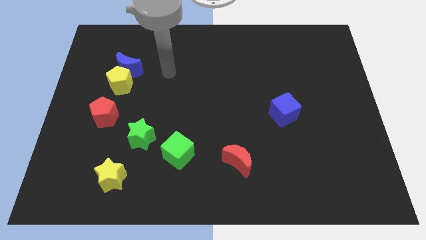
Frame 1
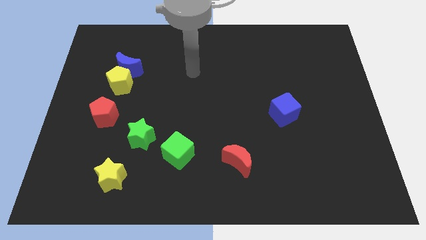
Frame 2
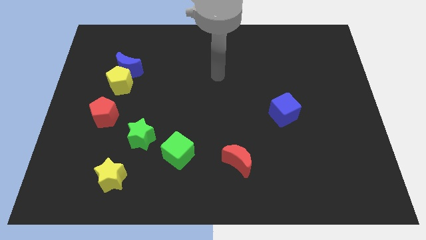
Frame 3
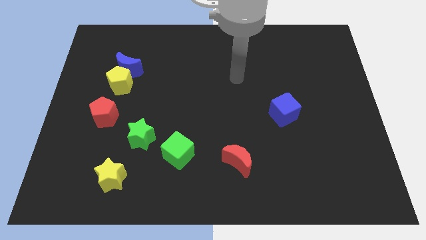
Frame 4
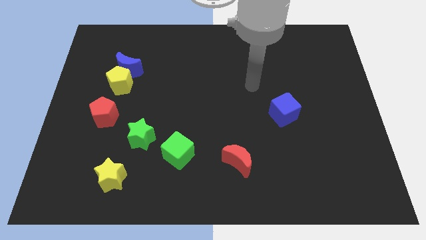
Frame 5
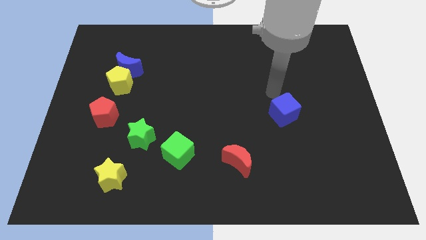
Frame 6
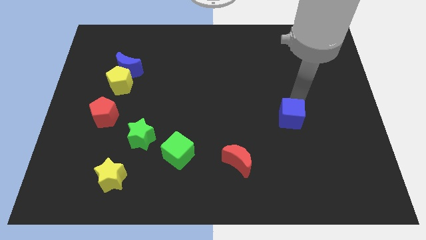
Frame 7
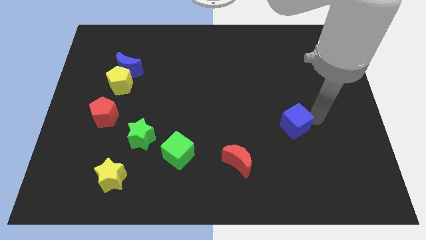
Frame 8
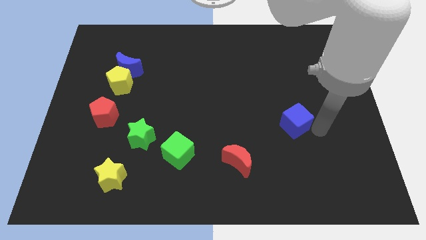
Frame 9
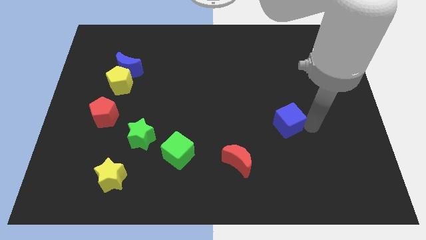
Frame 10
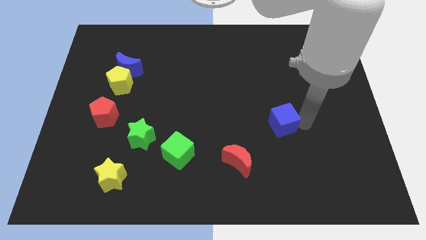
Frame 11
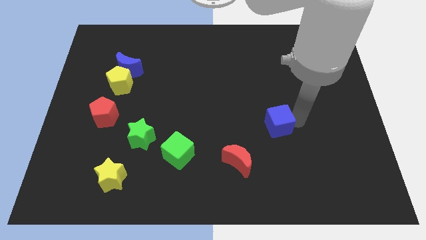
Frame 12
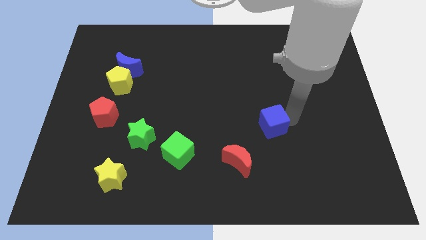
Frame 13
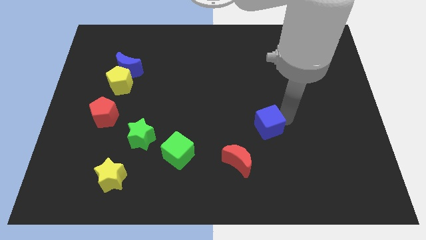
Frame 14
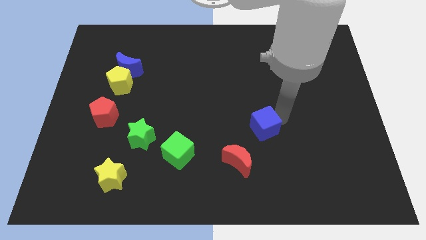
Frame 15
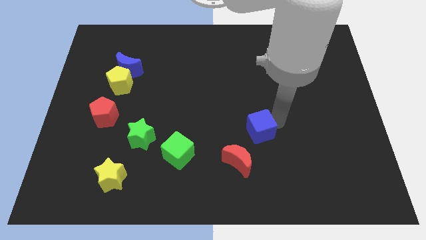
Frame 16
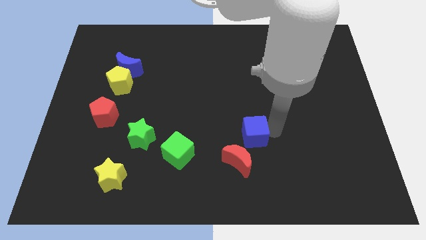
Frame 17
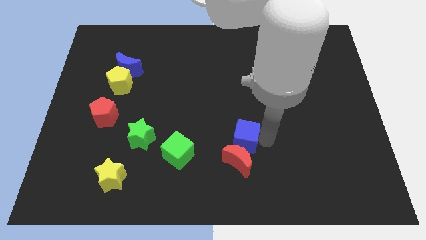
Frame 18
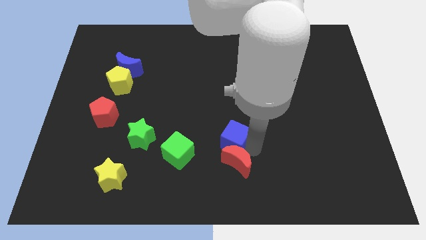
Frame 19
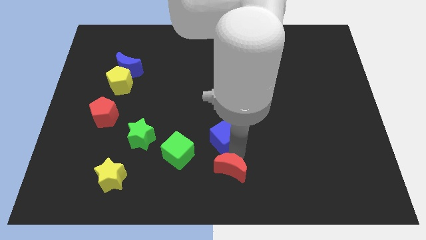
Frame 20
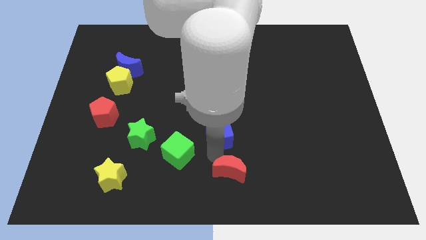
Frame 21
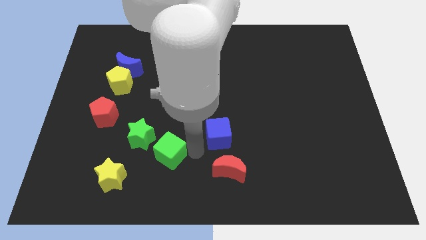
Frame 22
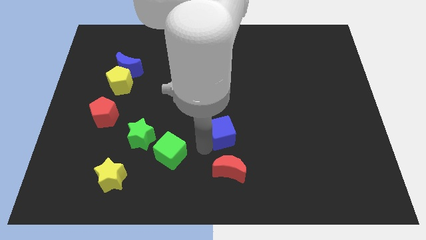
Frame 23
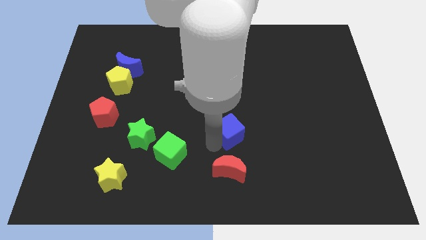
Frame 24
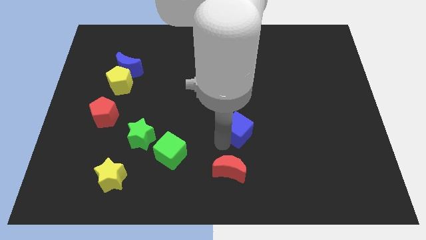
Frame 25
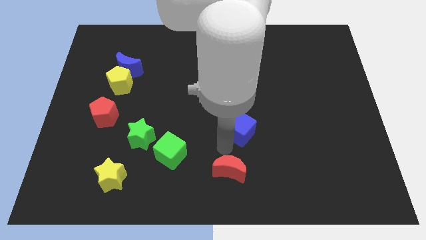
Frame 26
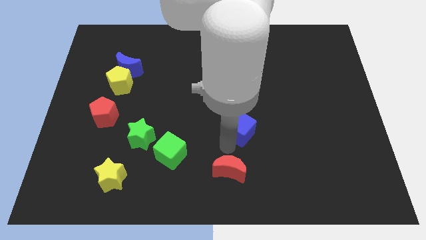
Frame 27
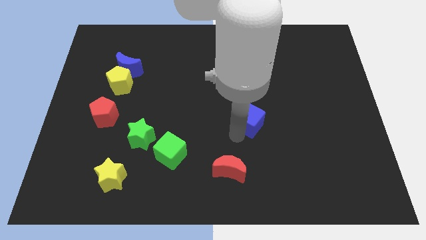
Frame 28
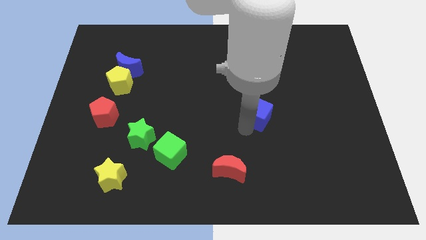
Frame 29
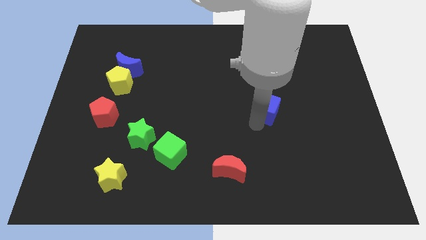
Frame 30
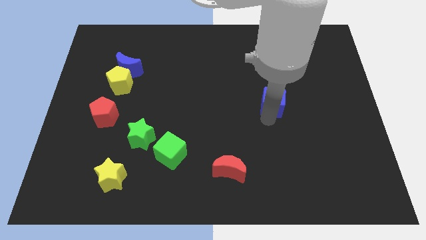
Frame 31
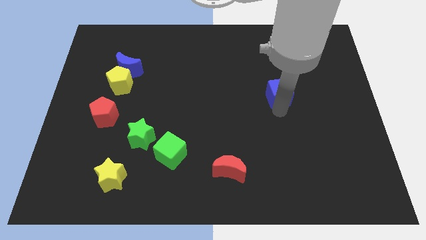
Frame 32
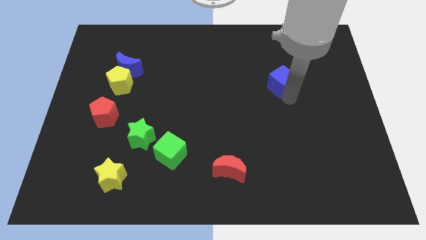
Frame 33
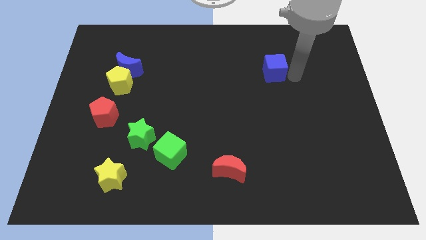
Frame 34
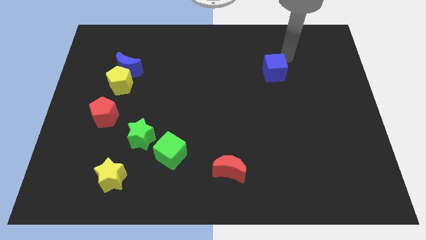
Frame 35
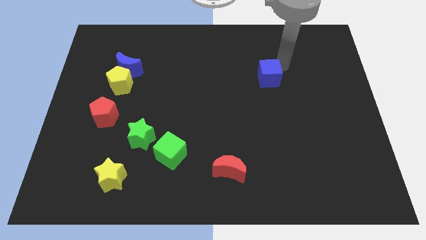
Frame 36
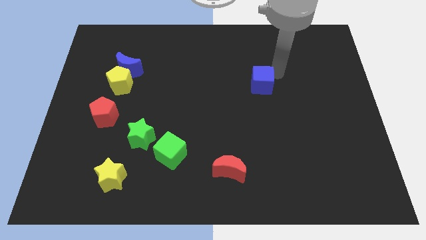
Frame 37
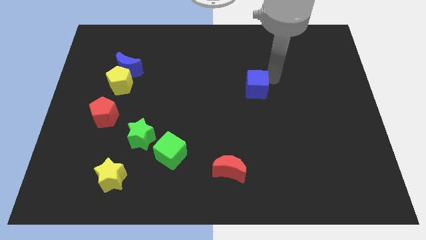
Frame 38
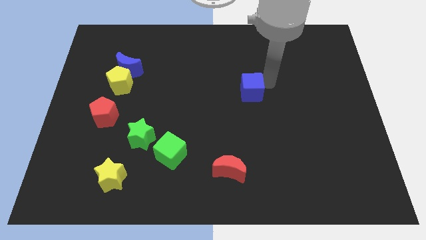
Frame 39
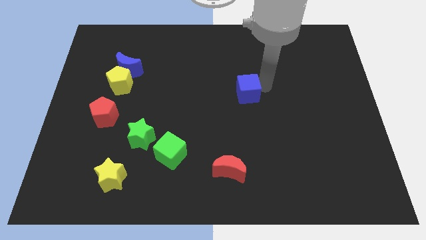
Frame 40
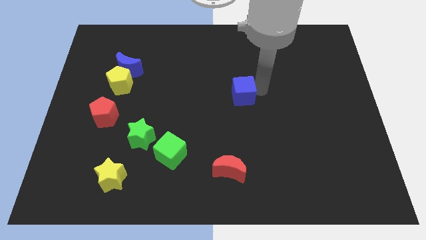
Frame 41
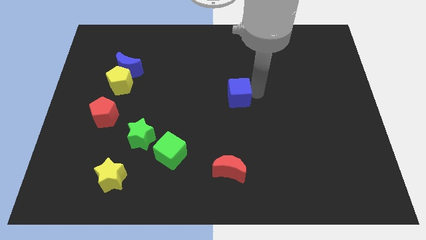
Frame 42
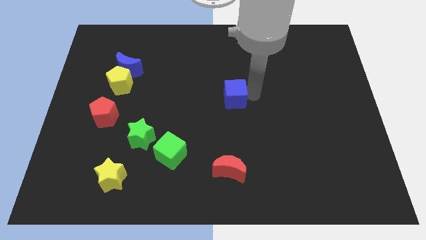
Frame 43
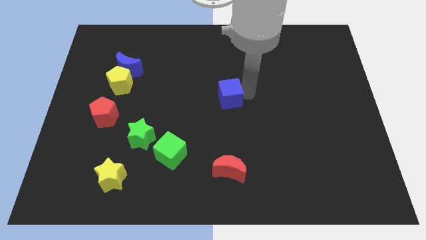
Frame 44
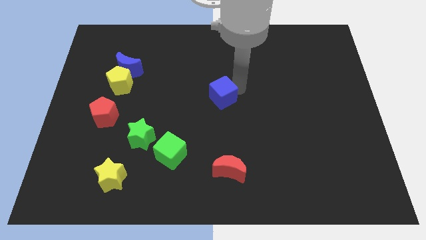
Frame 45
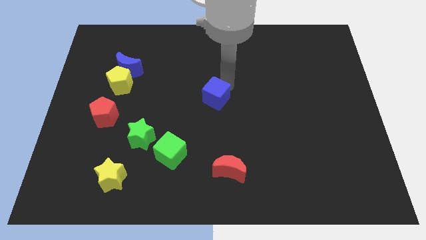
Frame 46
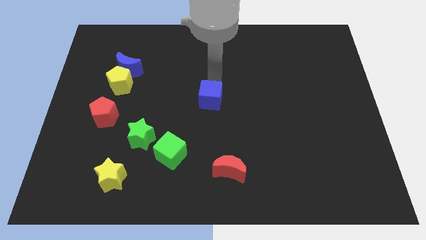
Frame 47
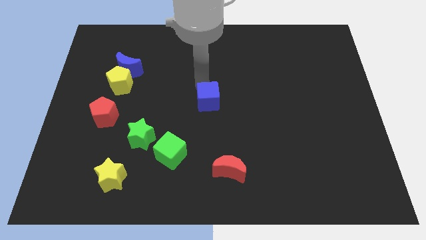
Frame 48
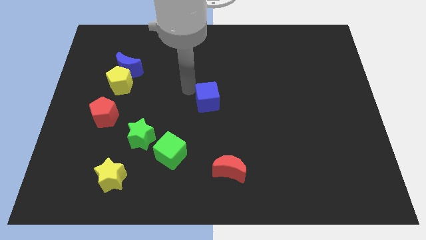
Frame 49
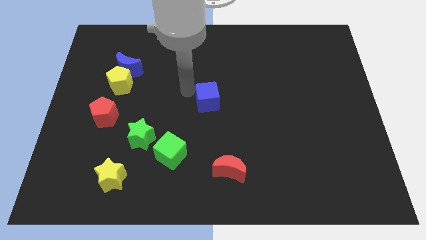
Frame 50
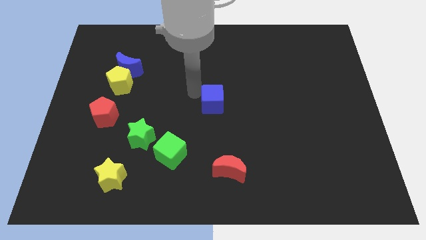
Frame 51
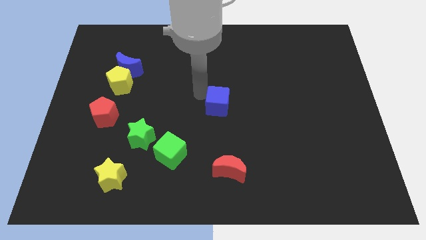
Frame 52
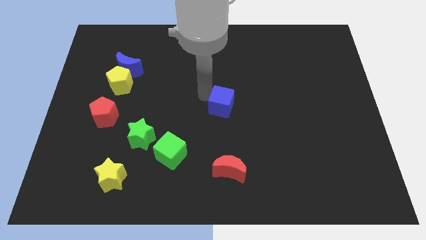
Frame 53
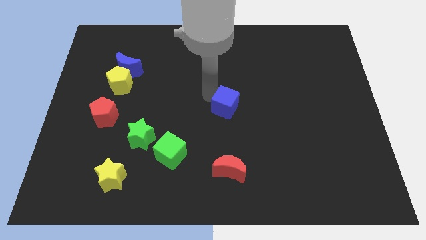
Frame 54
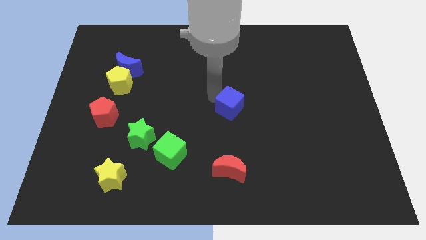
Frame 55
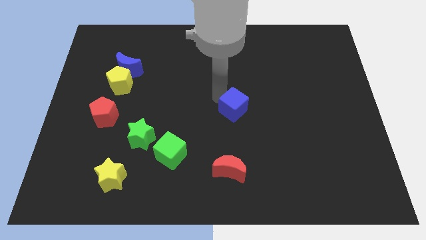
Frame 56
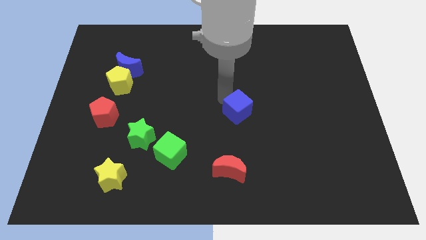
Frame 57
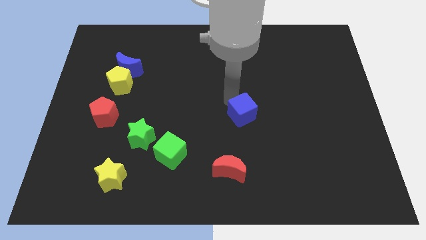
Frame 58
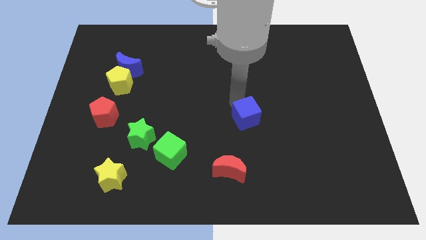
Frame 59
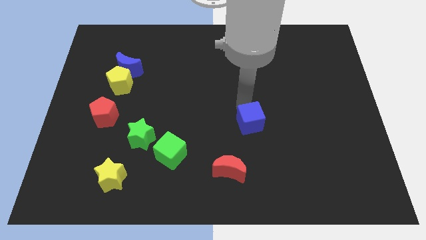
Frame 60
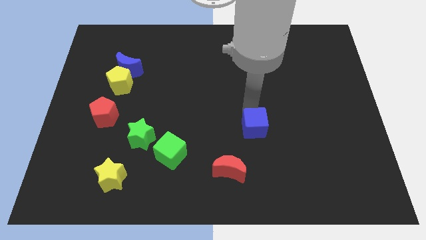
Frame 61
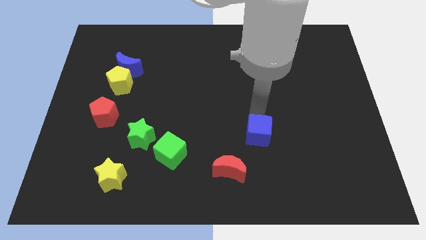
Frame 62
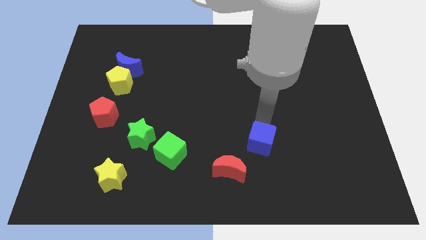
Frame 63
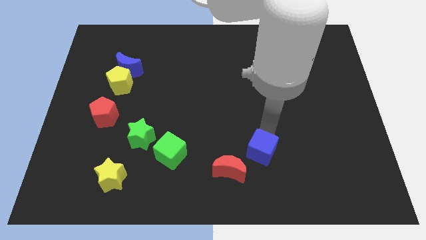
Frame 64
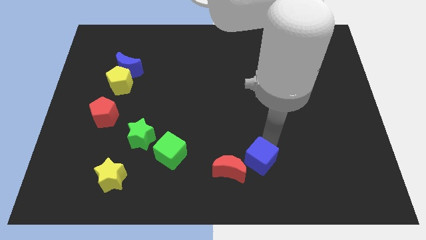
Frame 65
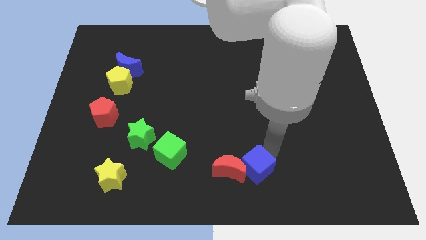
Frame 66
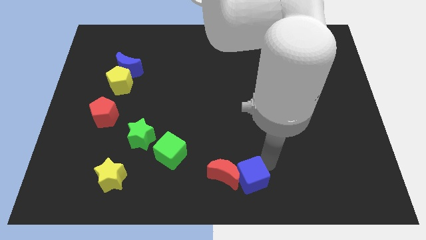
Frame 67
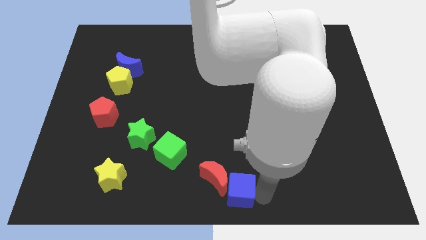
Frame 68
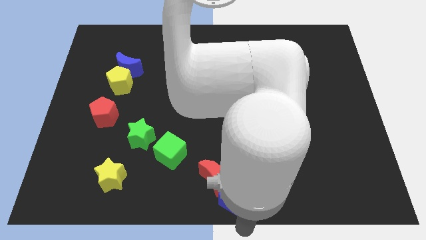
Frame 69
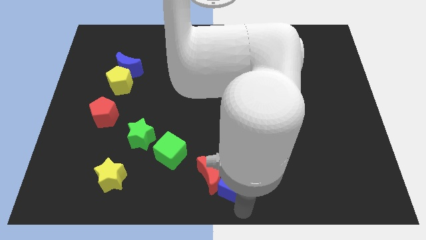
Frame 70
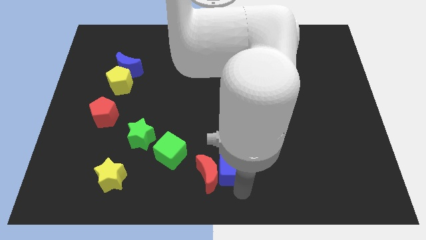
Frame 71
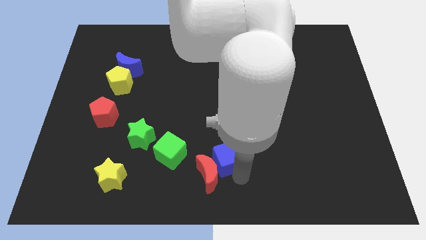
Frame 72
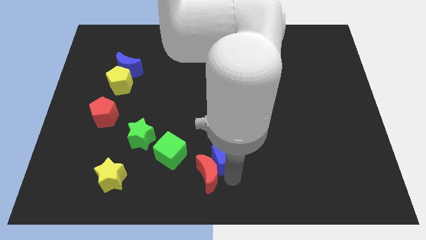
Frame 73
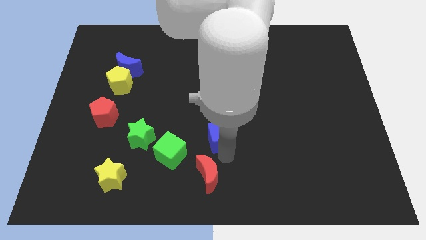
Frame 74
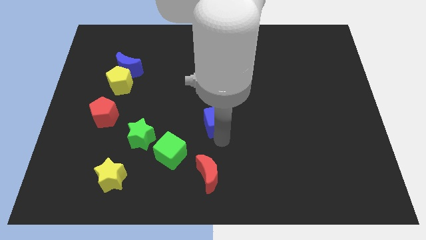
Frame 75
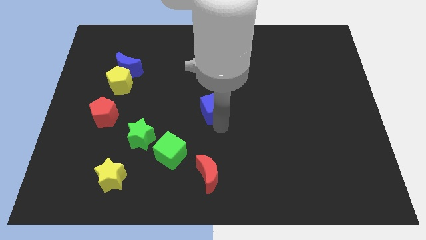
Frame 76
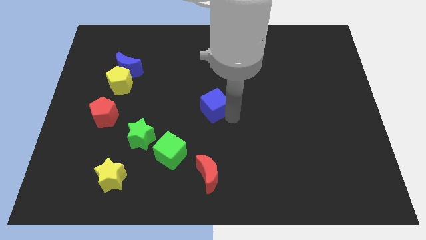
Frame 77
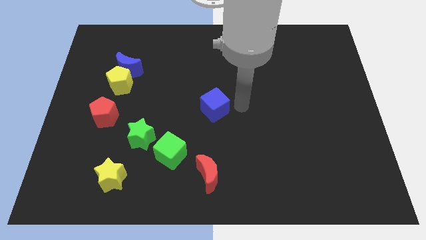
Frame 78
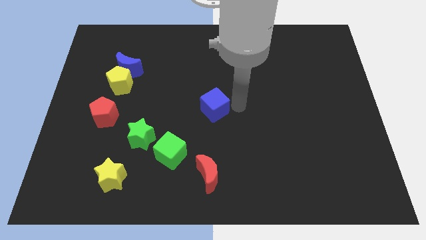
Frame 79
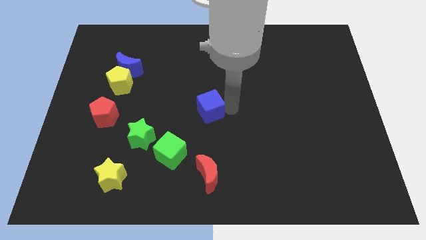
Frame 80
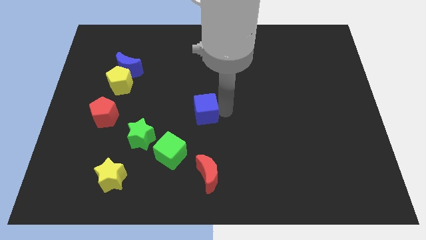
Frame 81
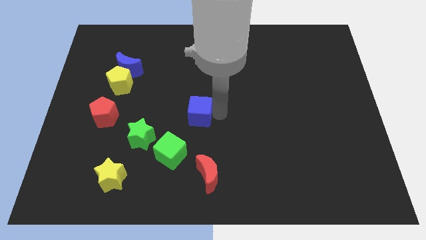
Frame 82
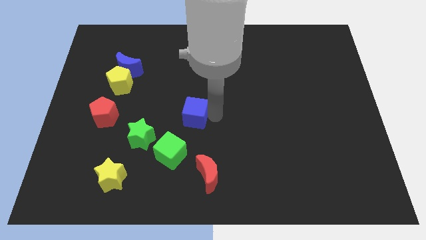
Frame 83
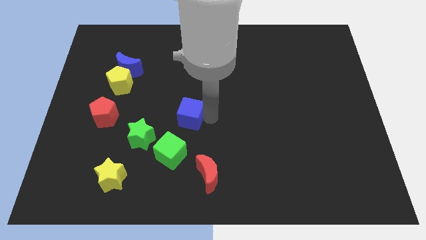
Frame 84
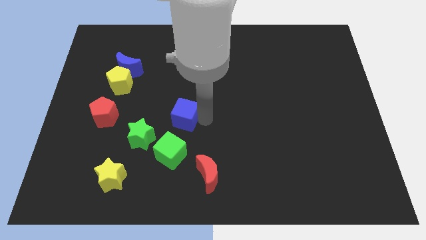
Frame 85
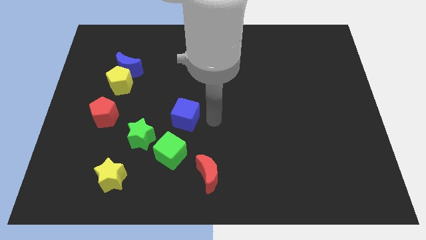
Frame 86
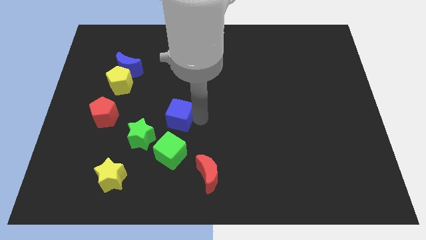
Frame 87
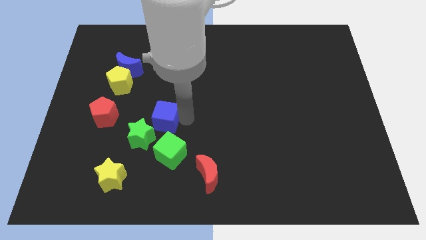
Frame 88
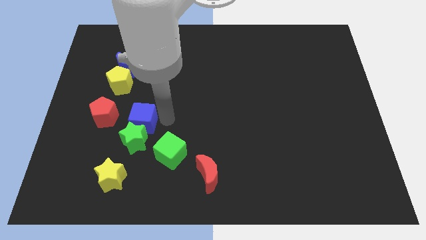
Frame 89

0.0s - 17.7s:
move the blue cube to the top left side of the green star
